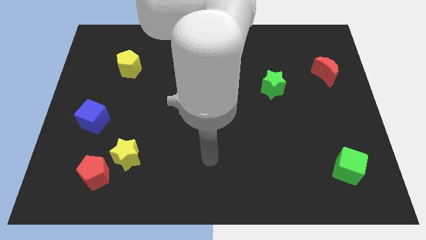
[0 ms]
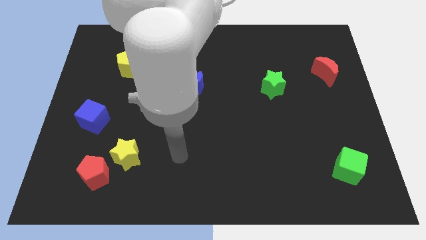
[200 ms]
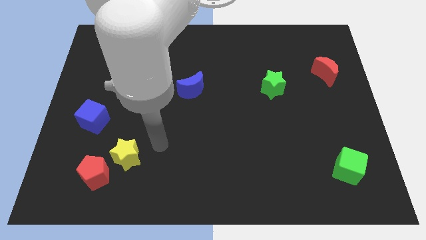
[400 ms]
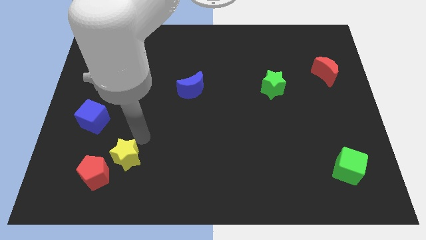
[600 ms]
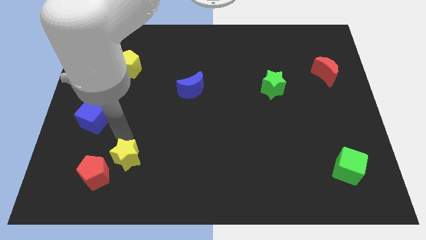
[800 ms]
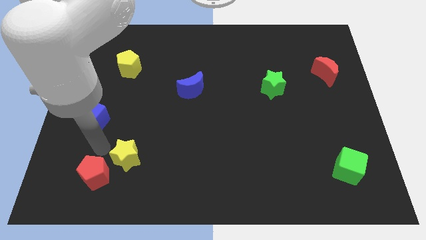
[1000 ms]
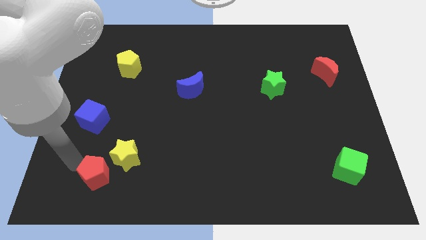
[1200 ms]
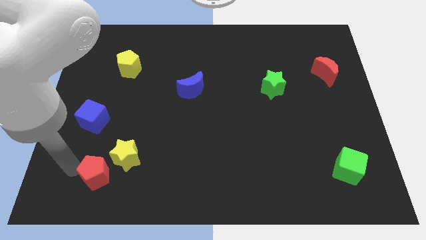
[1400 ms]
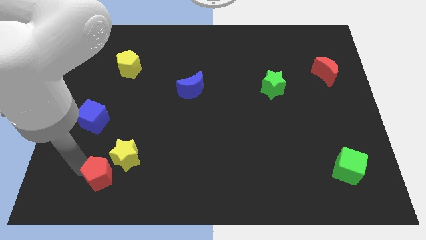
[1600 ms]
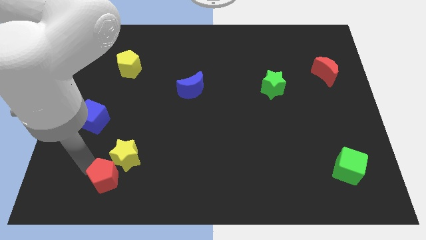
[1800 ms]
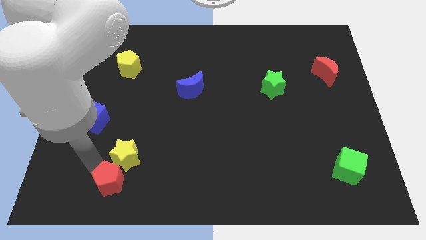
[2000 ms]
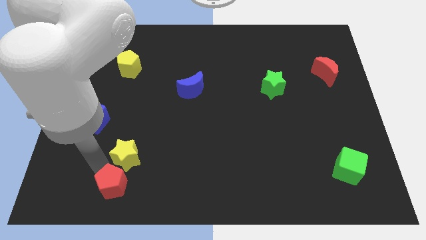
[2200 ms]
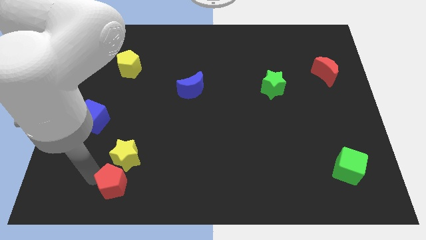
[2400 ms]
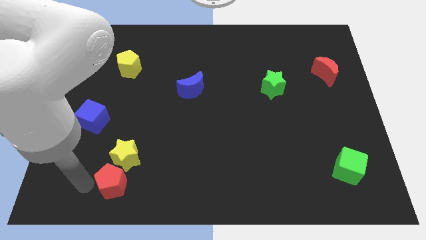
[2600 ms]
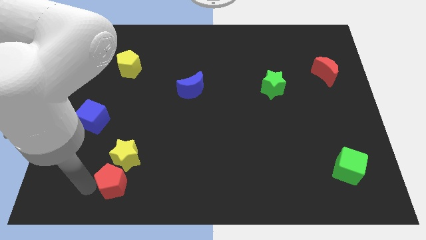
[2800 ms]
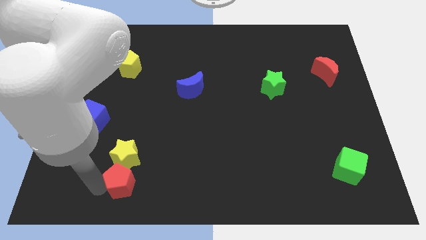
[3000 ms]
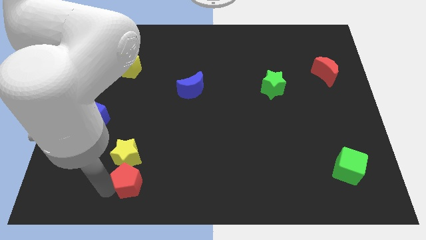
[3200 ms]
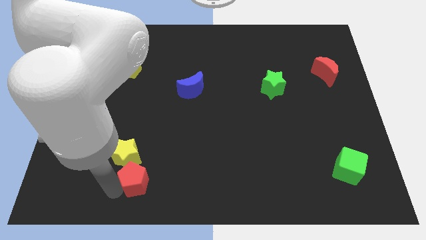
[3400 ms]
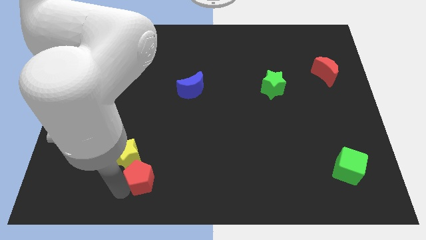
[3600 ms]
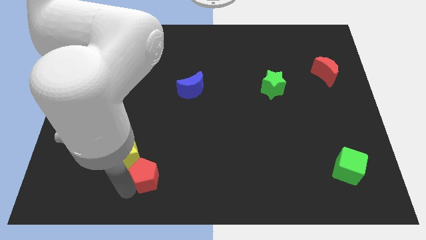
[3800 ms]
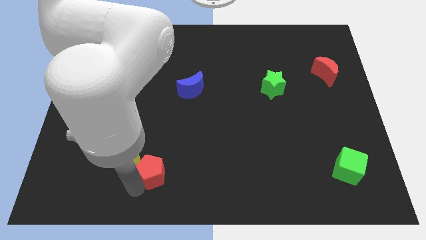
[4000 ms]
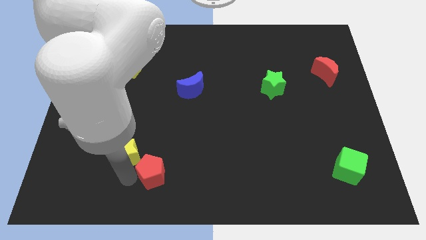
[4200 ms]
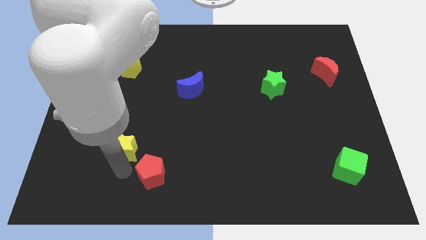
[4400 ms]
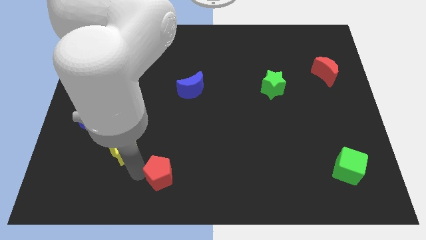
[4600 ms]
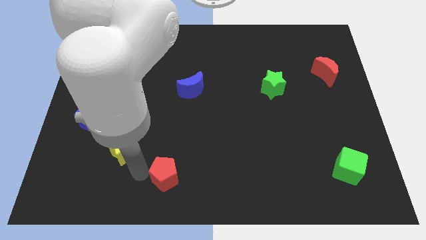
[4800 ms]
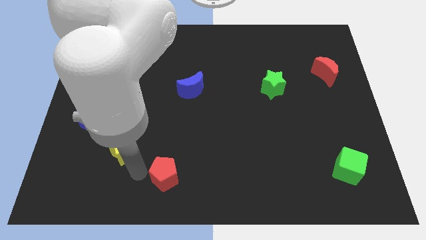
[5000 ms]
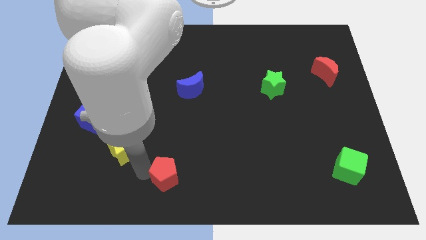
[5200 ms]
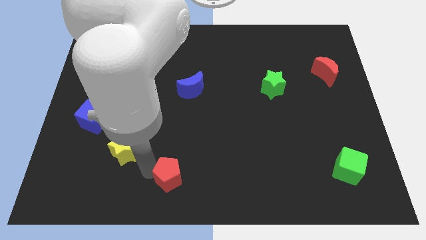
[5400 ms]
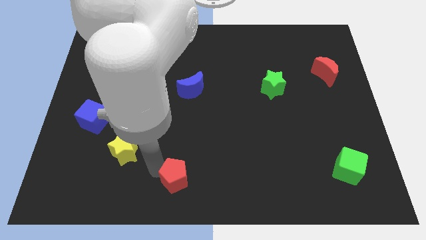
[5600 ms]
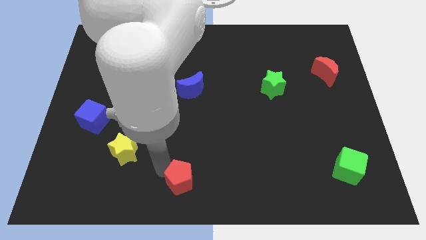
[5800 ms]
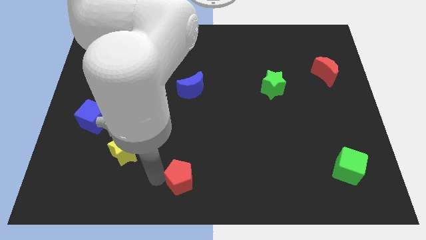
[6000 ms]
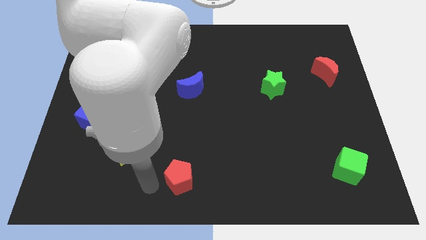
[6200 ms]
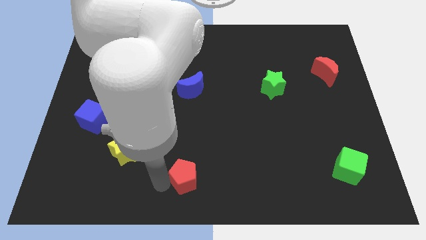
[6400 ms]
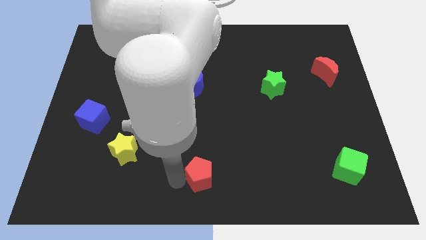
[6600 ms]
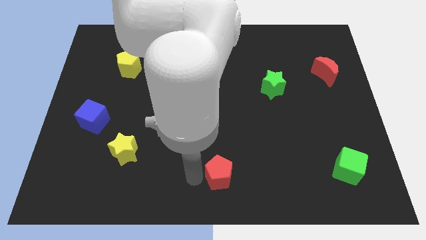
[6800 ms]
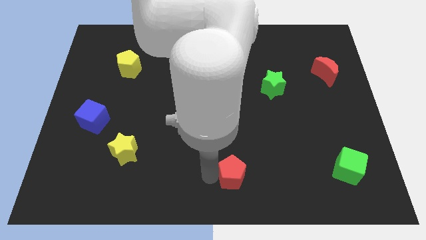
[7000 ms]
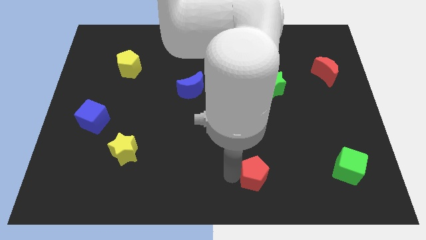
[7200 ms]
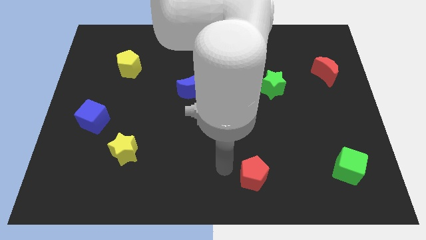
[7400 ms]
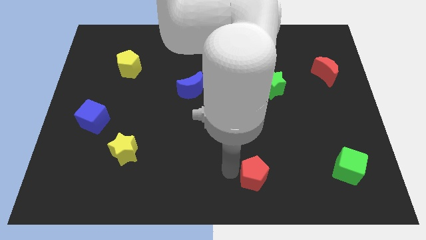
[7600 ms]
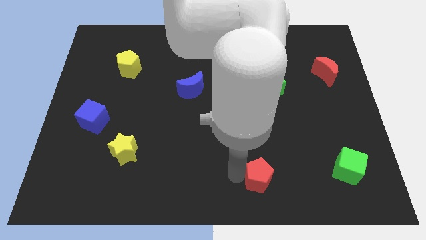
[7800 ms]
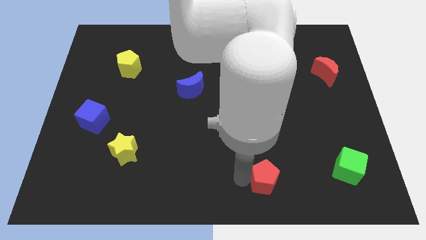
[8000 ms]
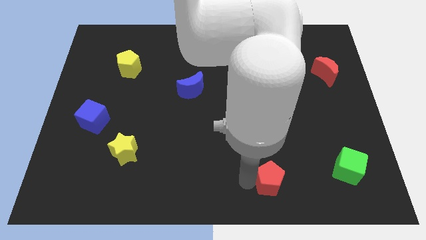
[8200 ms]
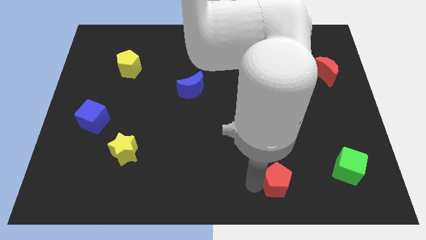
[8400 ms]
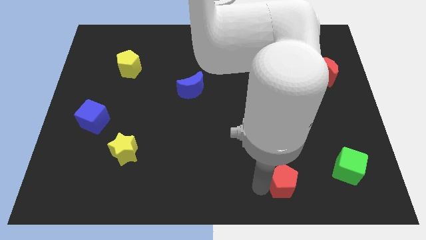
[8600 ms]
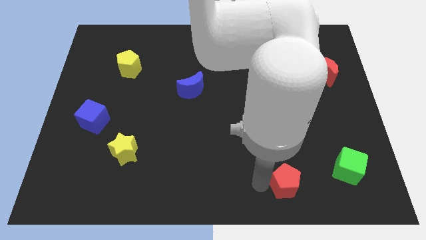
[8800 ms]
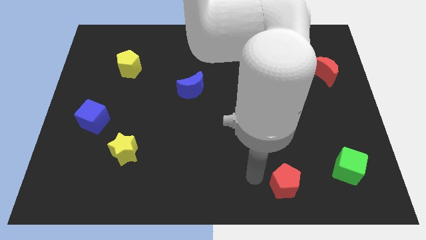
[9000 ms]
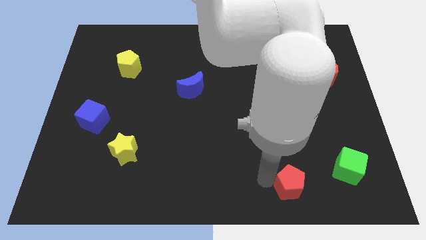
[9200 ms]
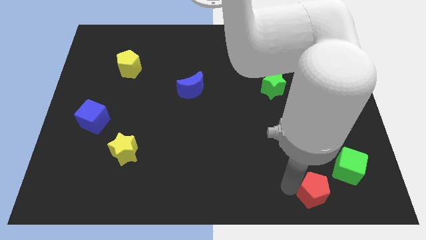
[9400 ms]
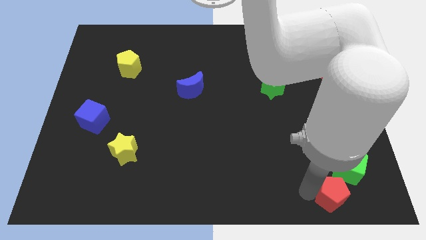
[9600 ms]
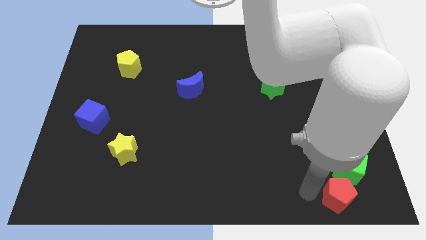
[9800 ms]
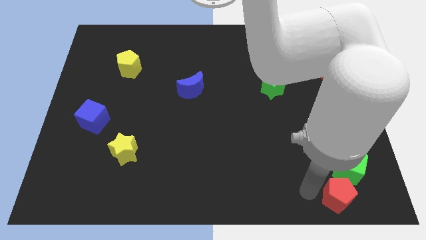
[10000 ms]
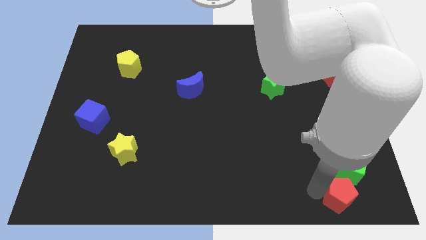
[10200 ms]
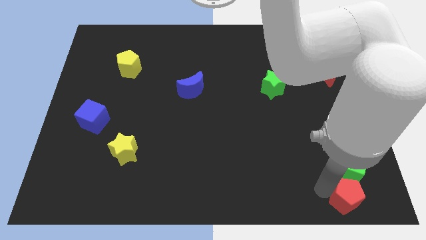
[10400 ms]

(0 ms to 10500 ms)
put the red pentagon to the bottom right of the board

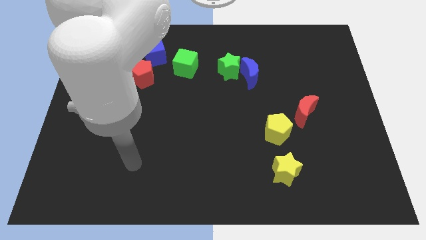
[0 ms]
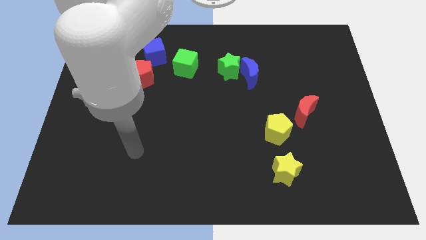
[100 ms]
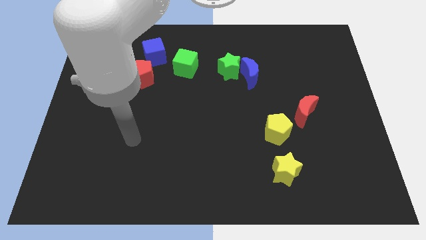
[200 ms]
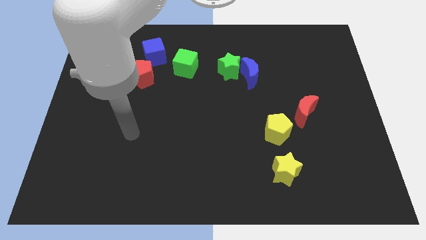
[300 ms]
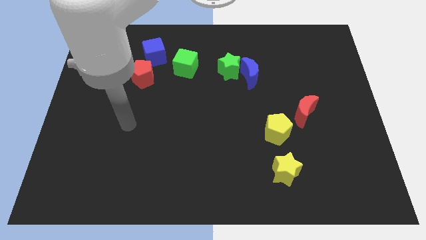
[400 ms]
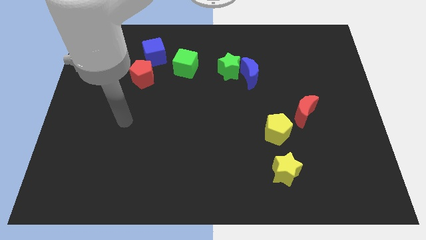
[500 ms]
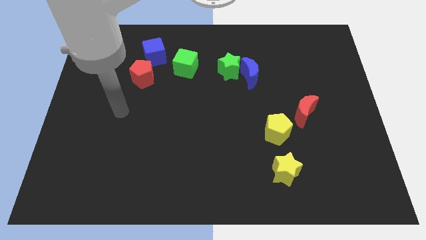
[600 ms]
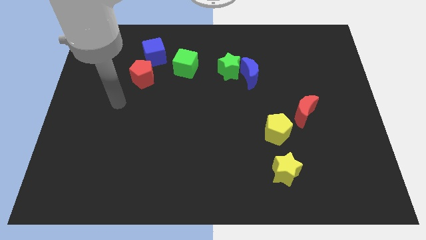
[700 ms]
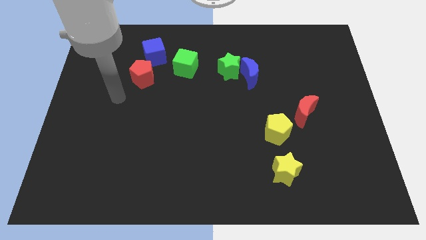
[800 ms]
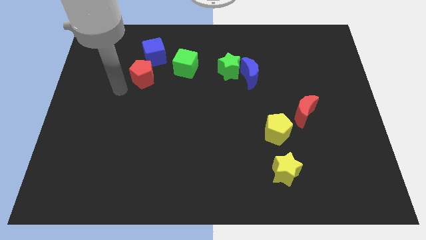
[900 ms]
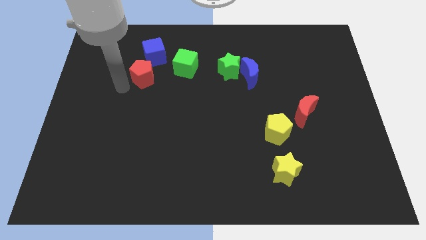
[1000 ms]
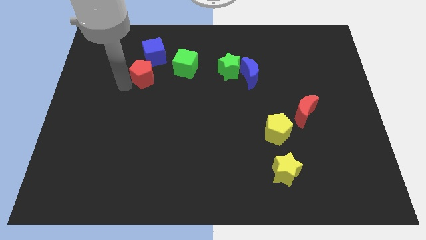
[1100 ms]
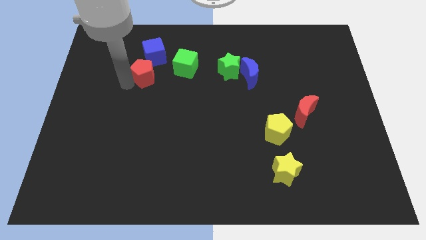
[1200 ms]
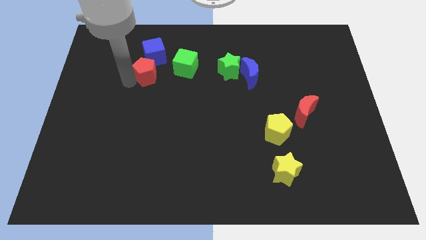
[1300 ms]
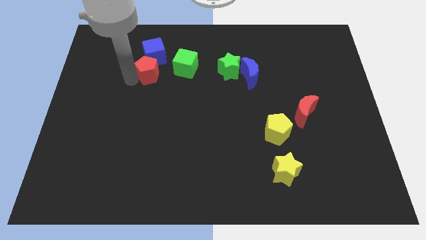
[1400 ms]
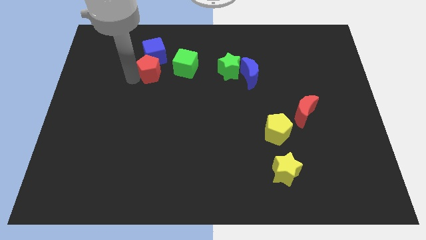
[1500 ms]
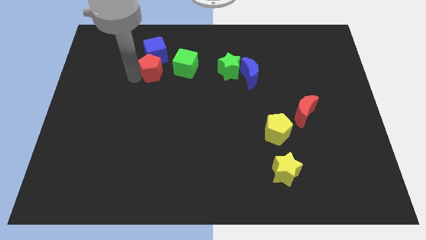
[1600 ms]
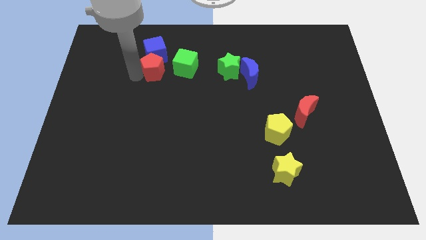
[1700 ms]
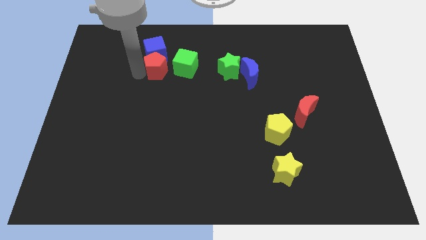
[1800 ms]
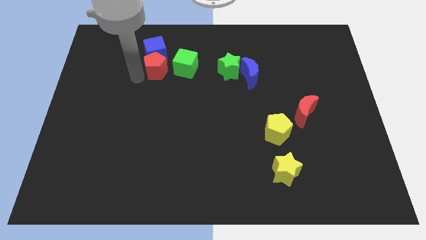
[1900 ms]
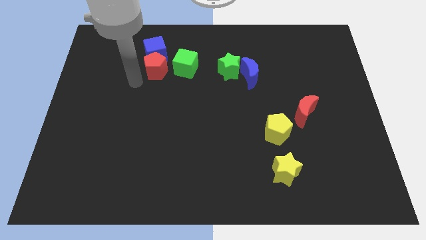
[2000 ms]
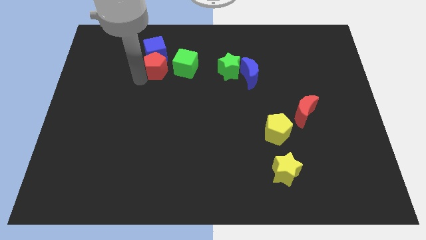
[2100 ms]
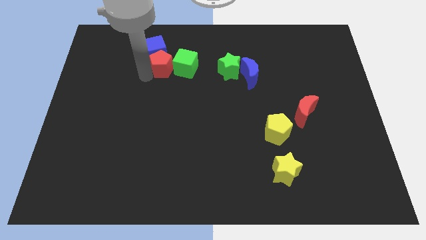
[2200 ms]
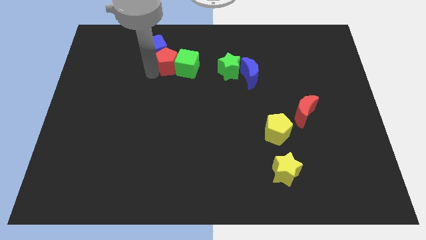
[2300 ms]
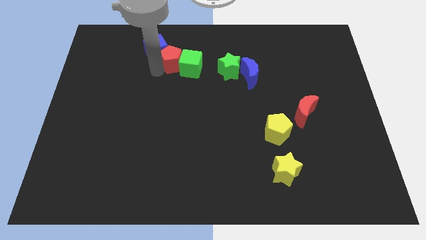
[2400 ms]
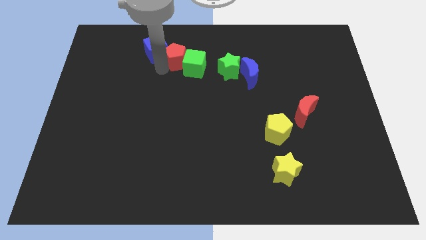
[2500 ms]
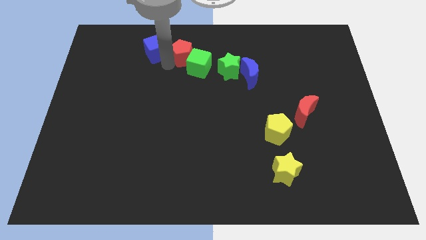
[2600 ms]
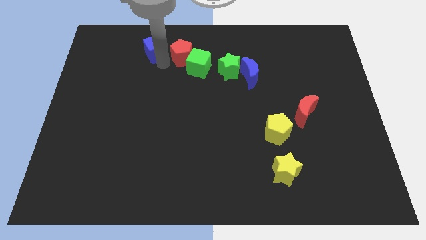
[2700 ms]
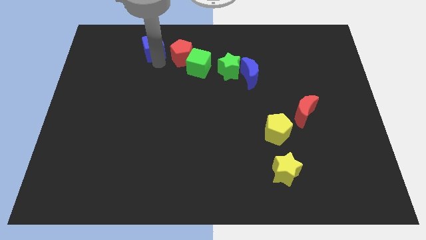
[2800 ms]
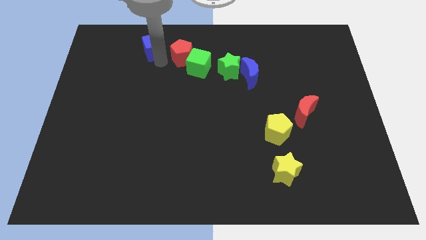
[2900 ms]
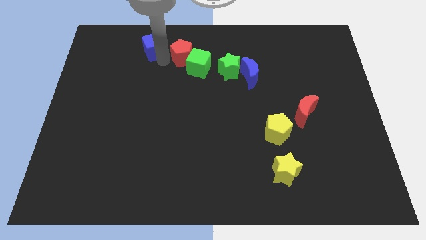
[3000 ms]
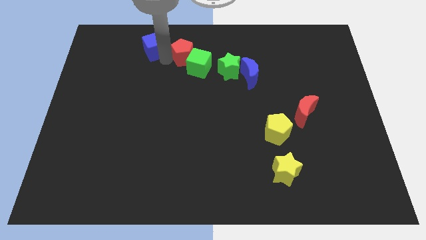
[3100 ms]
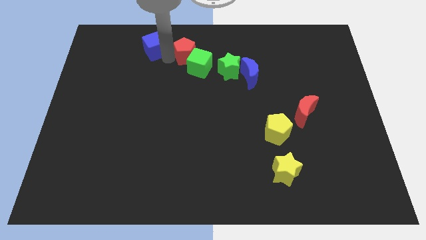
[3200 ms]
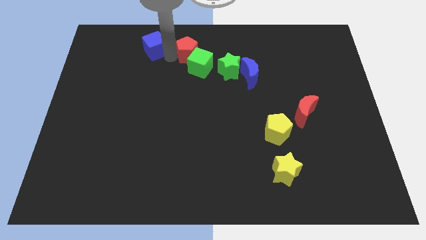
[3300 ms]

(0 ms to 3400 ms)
put the red pentagon to the top side
